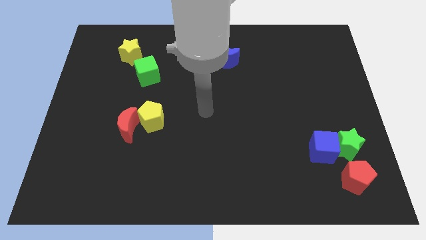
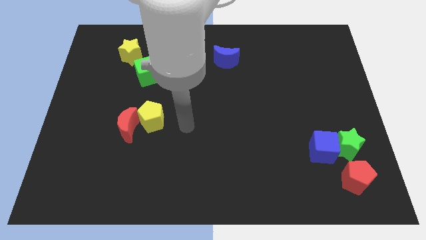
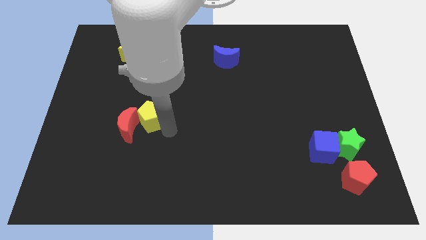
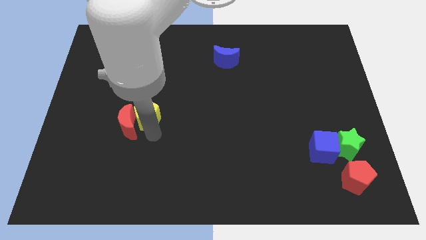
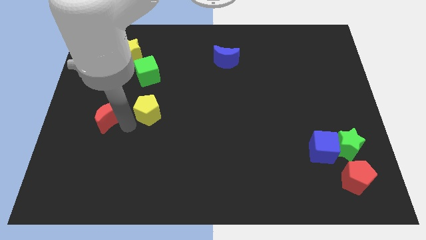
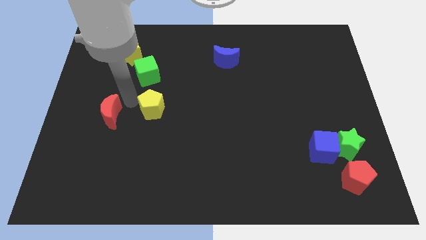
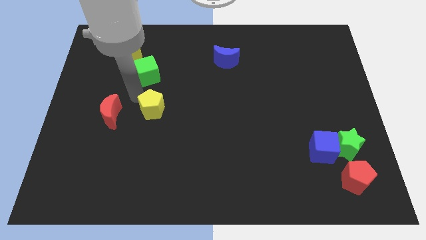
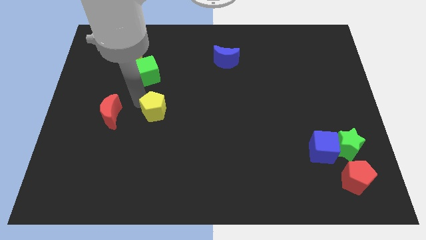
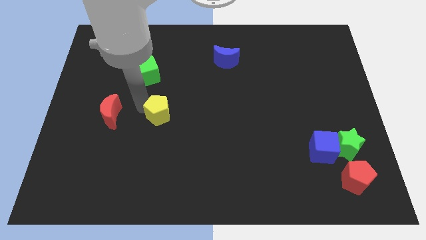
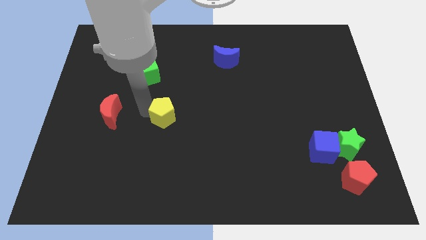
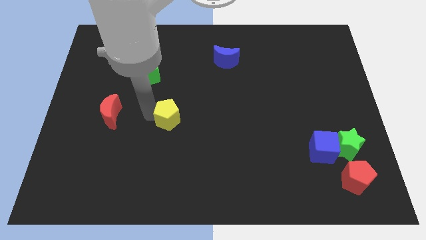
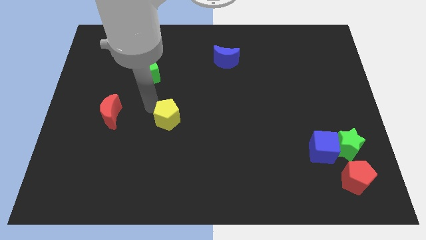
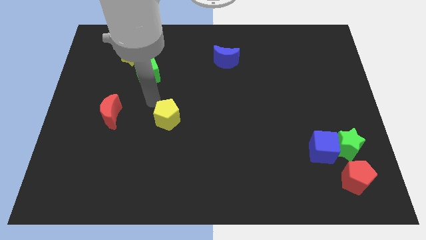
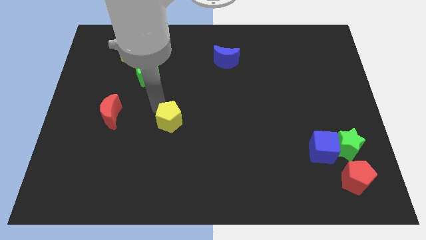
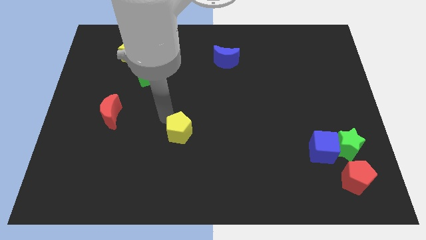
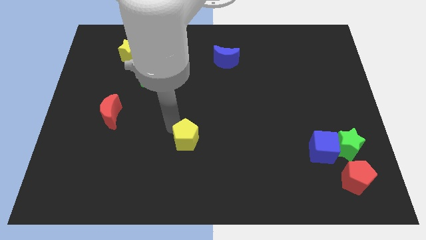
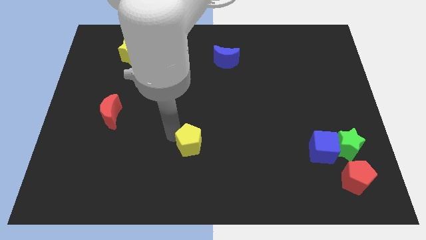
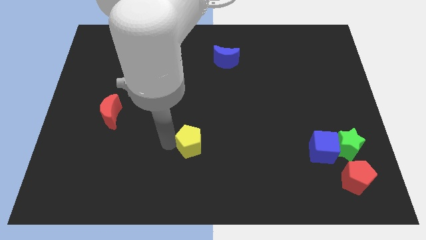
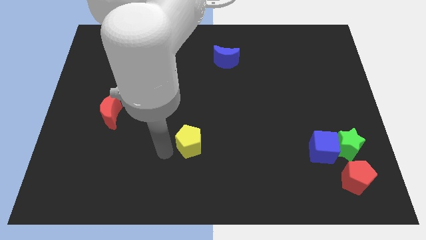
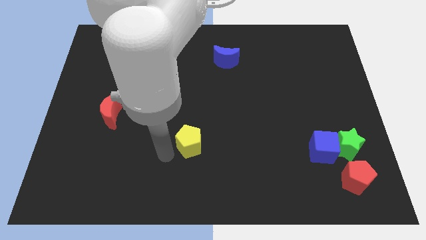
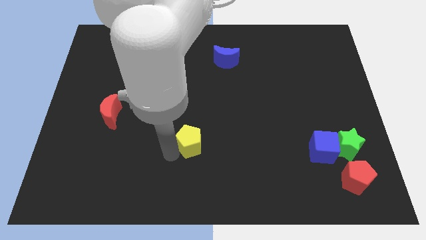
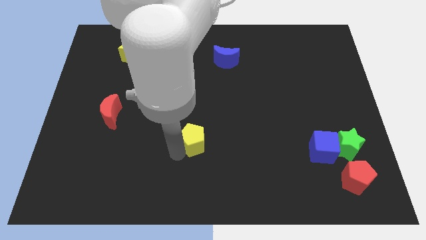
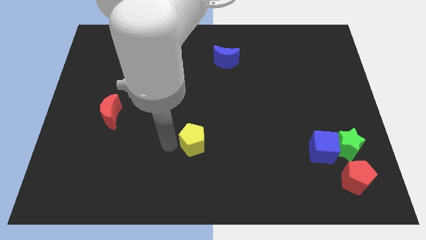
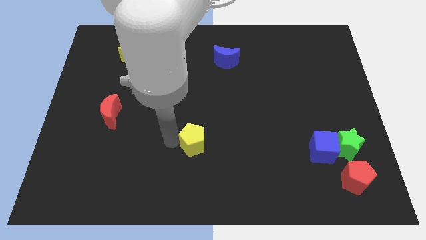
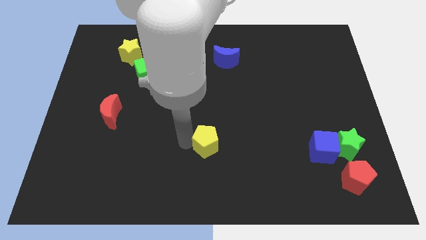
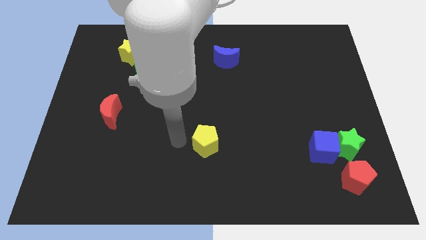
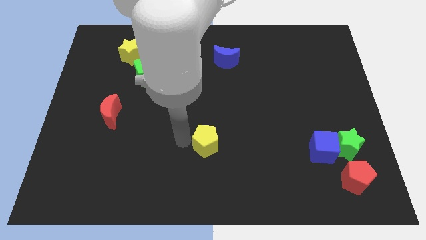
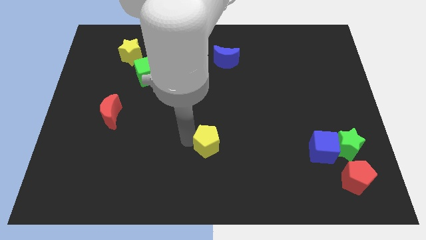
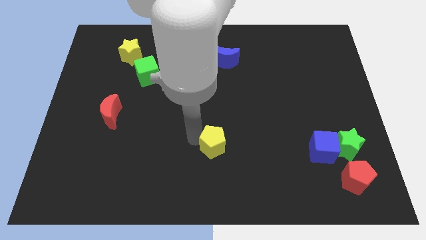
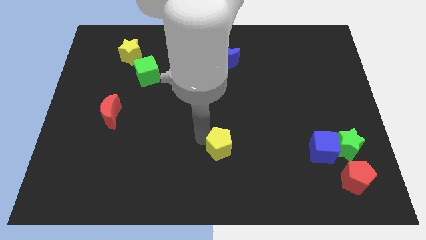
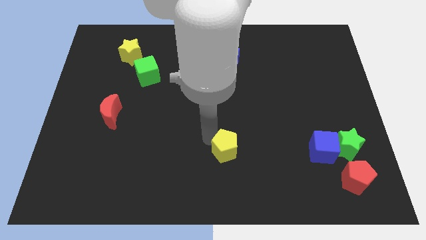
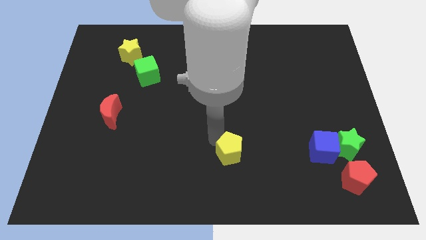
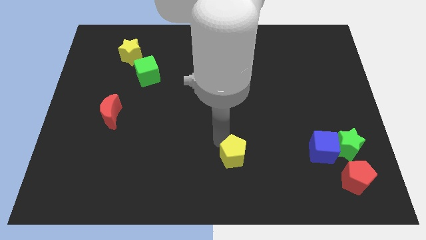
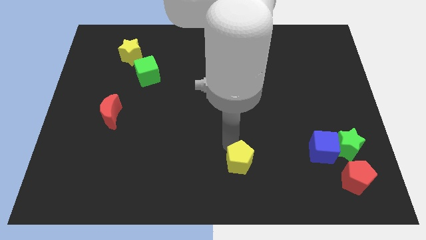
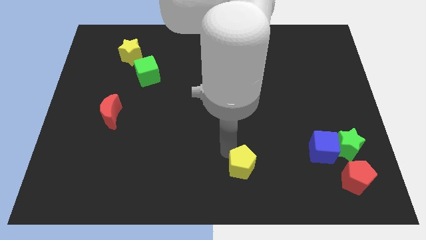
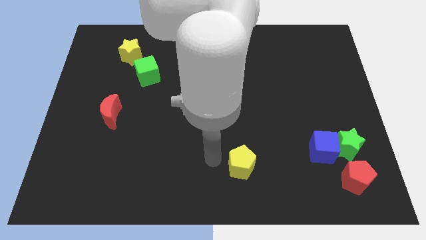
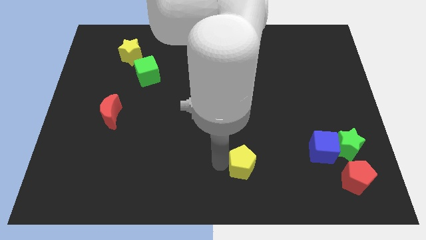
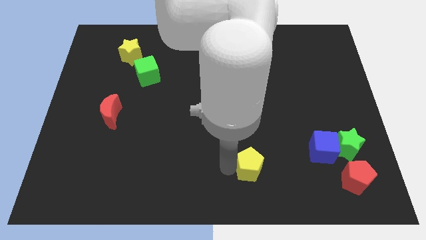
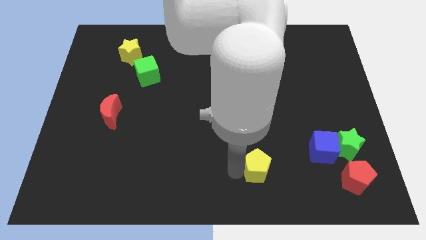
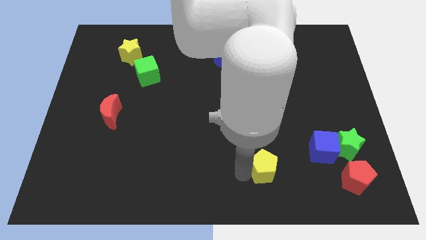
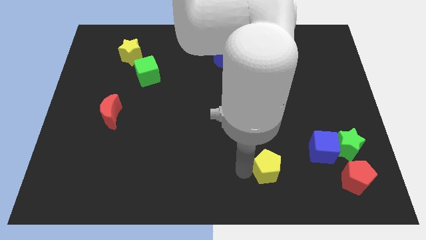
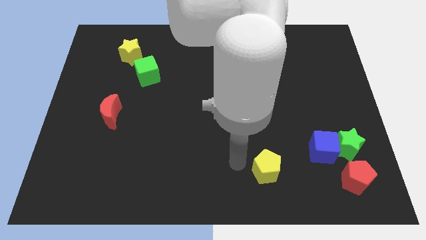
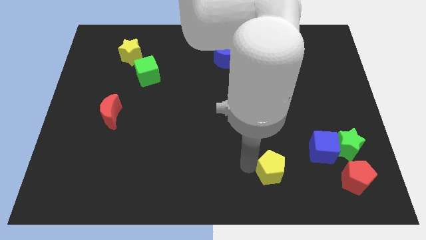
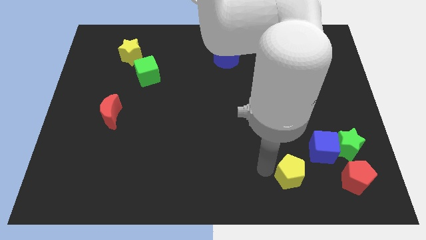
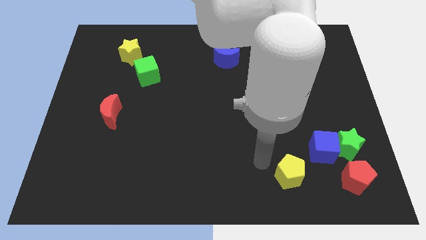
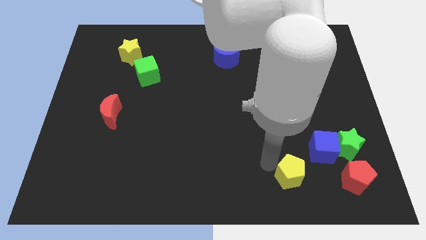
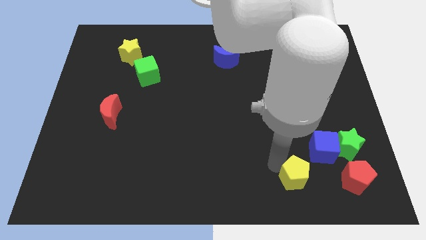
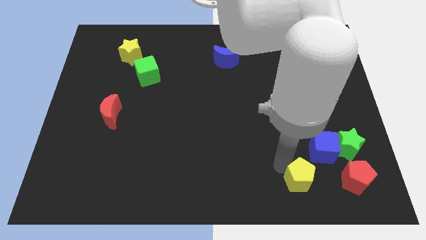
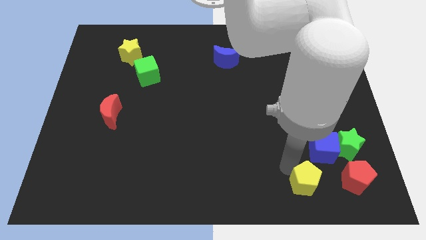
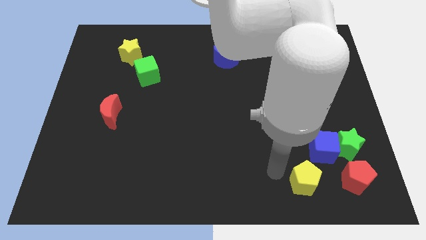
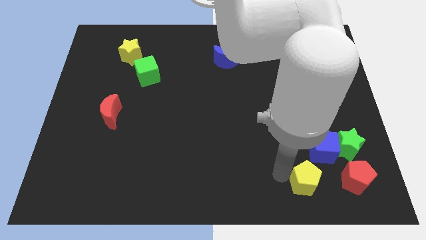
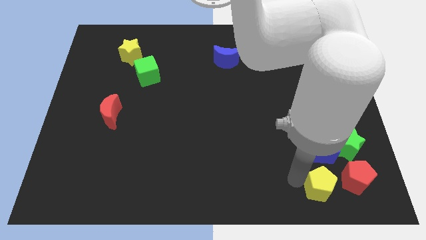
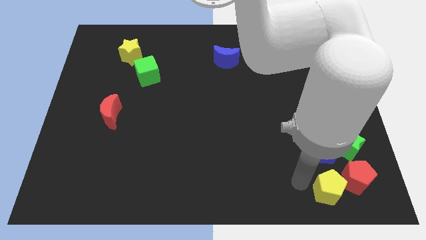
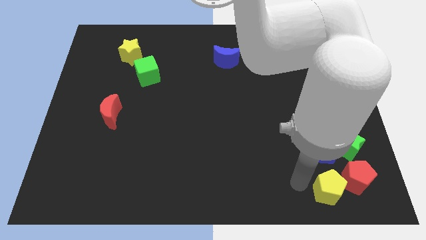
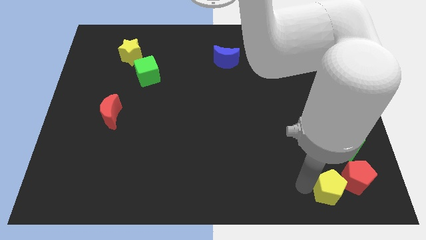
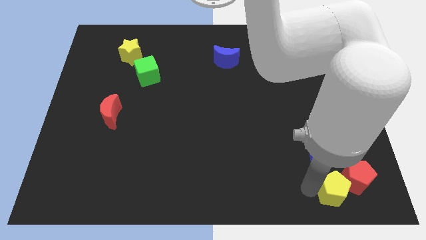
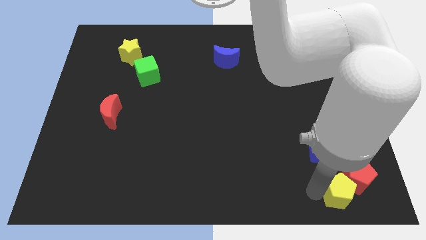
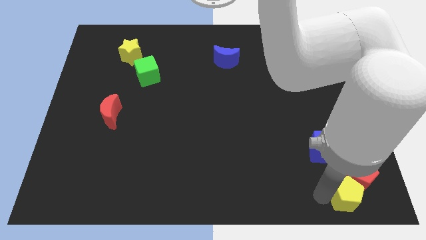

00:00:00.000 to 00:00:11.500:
push the yellow pentagon to the bottom right corner
